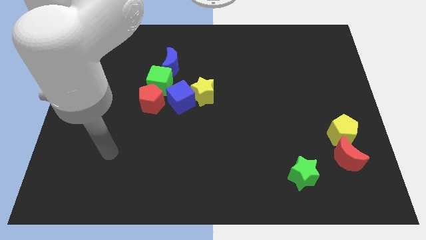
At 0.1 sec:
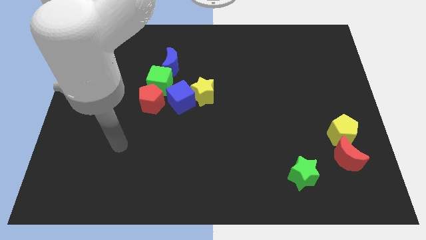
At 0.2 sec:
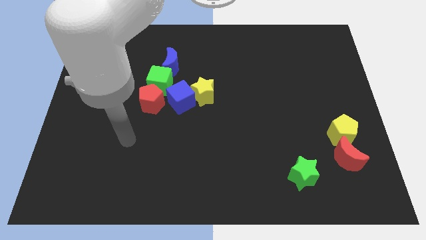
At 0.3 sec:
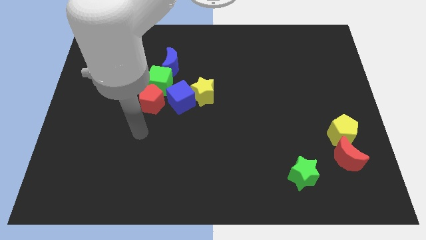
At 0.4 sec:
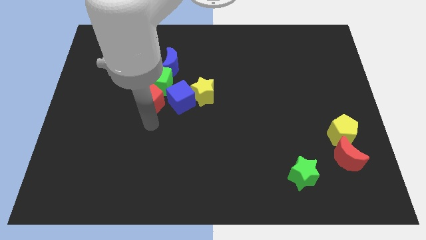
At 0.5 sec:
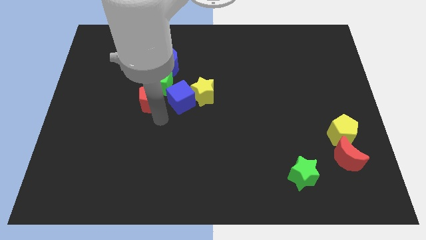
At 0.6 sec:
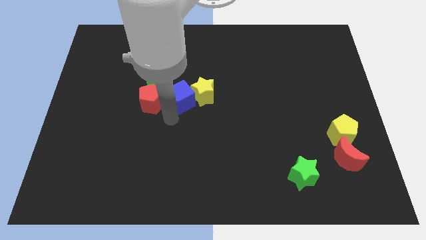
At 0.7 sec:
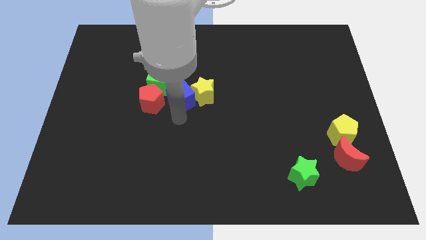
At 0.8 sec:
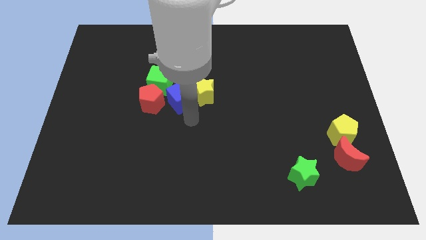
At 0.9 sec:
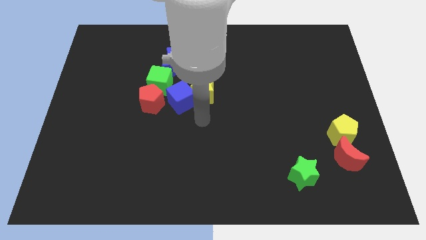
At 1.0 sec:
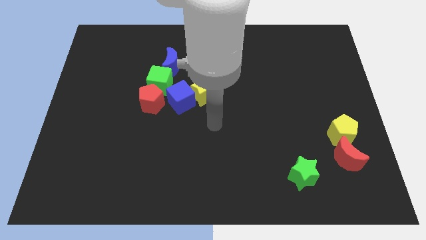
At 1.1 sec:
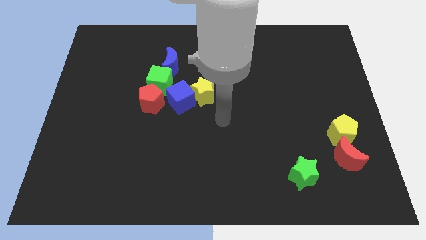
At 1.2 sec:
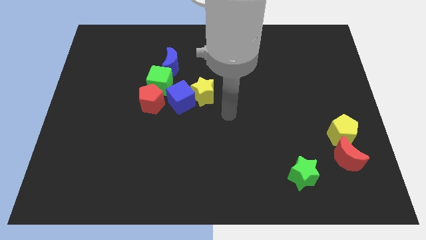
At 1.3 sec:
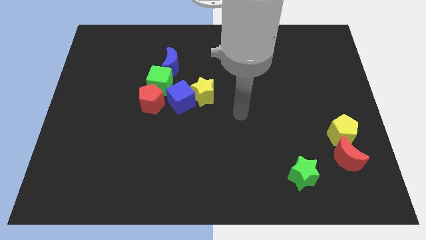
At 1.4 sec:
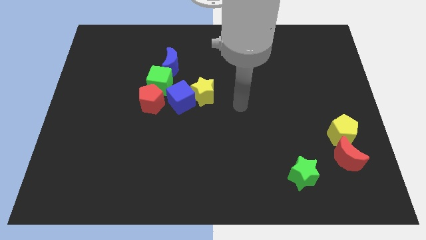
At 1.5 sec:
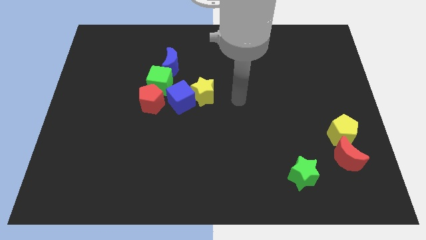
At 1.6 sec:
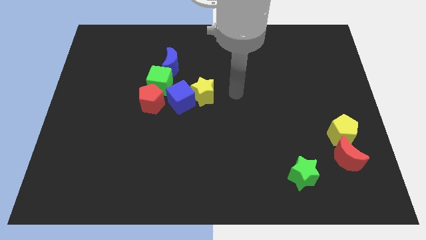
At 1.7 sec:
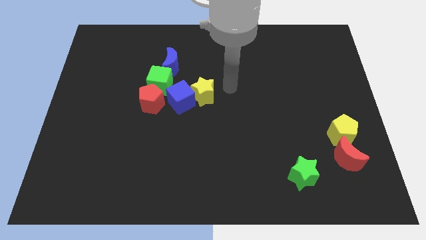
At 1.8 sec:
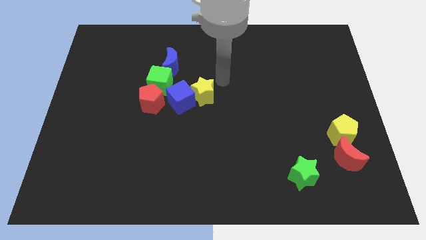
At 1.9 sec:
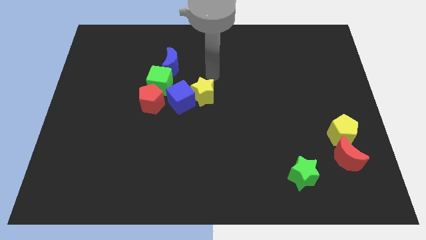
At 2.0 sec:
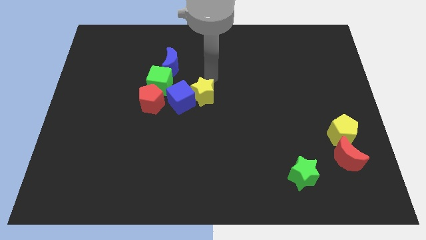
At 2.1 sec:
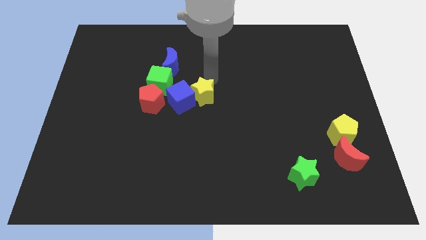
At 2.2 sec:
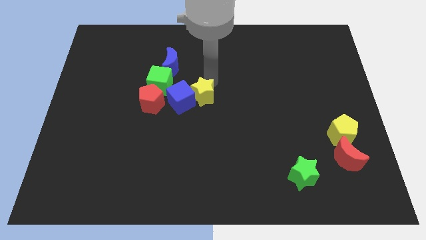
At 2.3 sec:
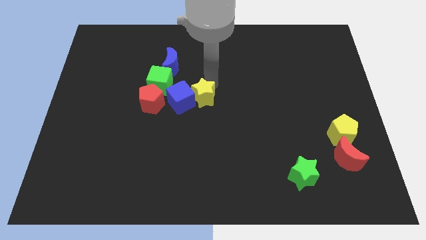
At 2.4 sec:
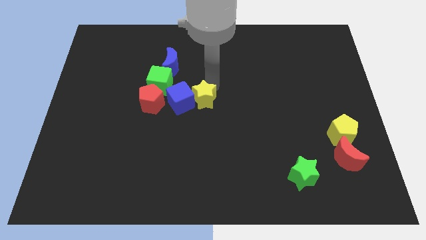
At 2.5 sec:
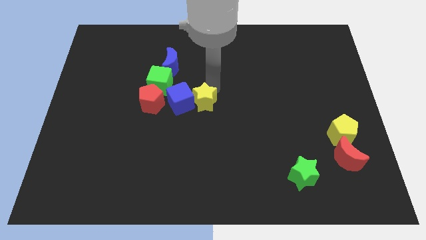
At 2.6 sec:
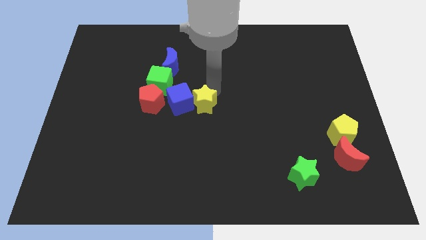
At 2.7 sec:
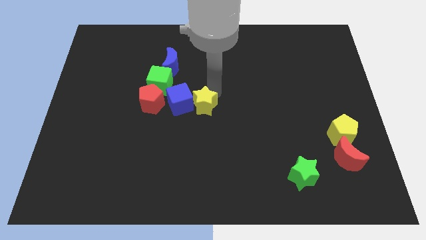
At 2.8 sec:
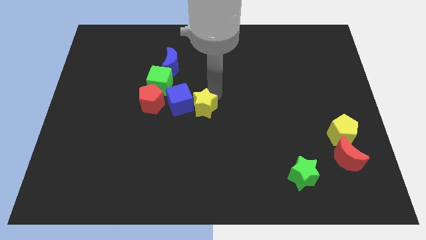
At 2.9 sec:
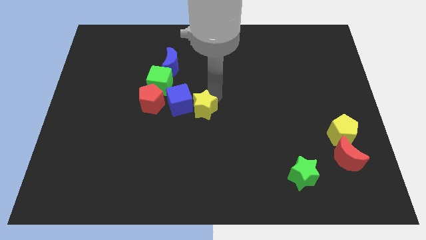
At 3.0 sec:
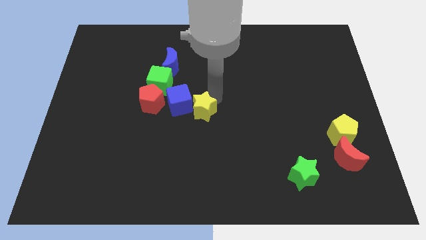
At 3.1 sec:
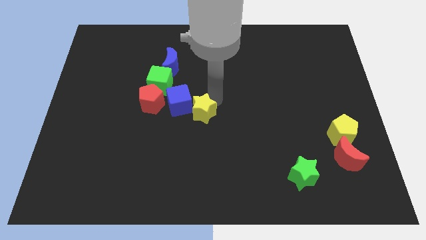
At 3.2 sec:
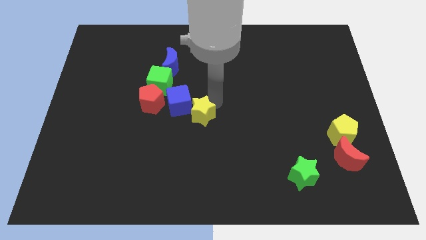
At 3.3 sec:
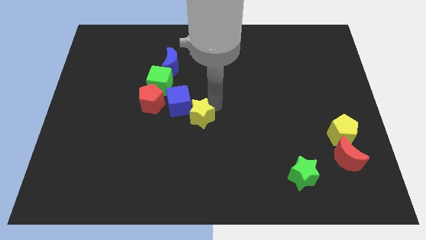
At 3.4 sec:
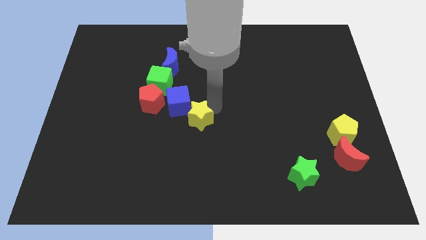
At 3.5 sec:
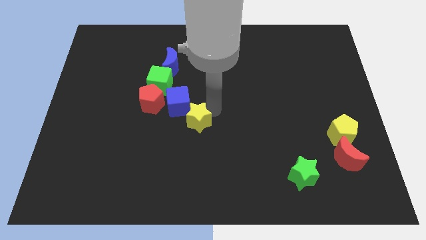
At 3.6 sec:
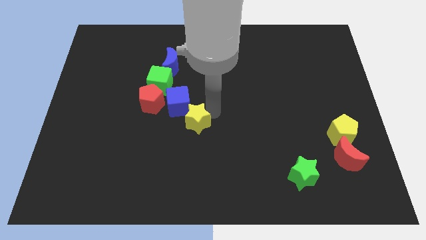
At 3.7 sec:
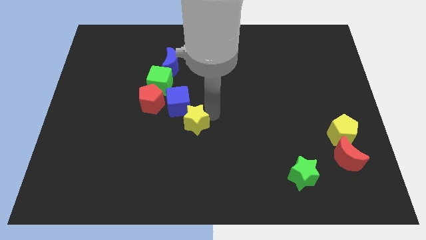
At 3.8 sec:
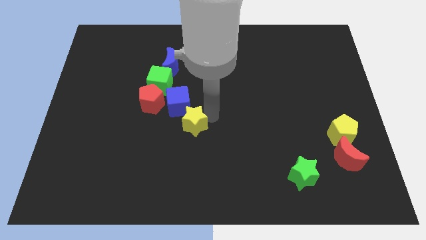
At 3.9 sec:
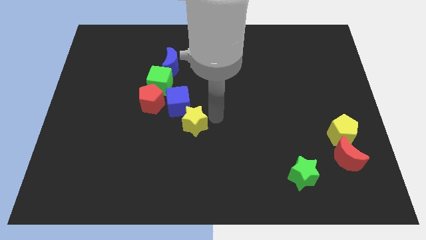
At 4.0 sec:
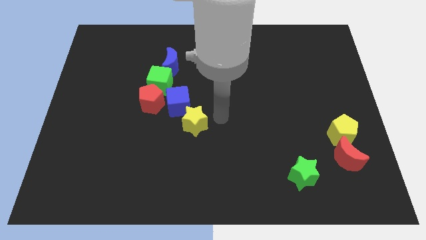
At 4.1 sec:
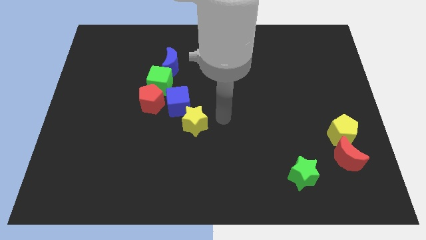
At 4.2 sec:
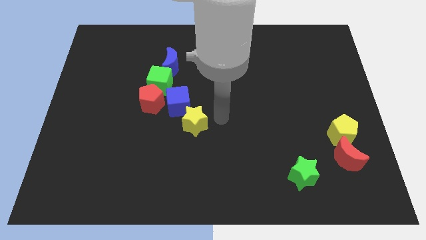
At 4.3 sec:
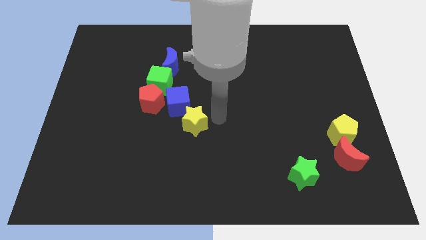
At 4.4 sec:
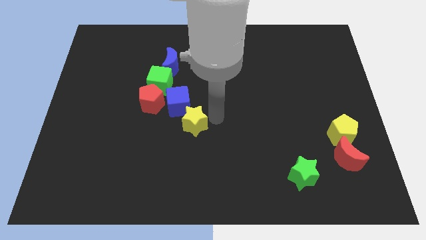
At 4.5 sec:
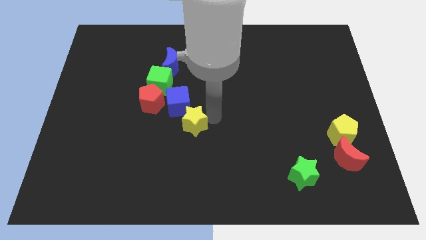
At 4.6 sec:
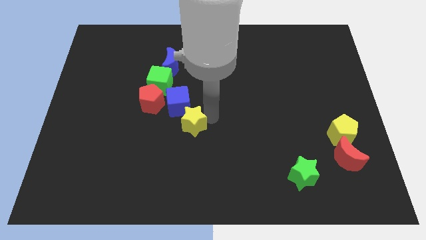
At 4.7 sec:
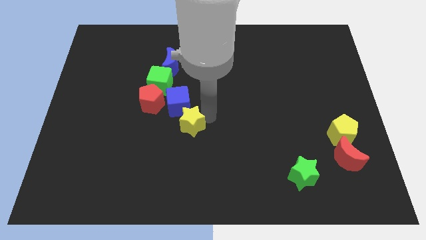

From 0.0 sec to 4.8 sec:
move the yellow star down and to the left diagonally somewhat

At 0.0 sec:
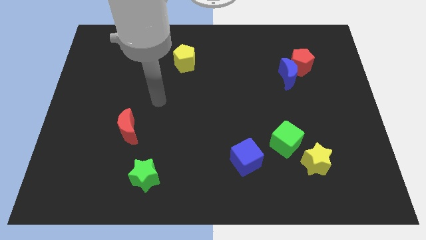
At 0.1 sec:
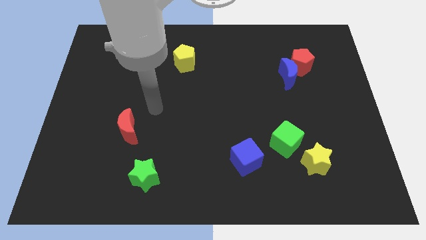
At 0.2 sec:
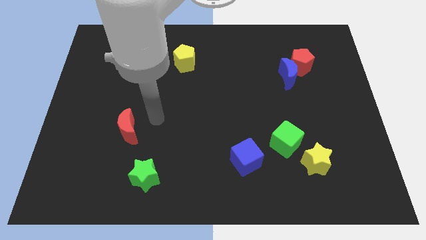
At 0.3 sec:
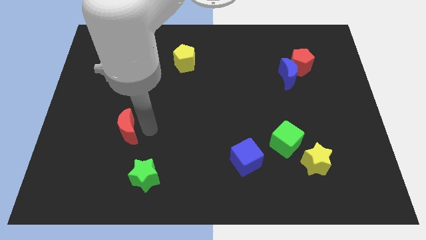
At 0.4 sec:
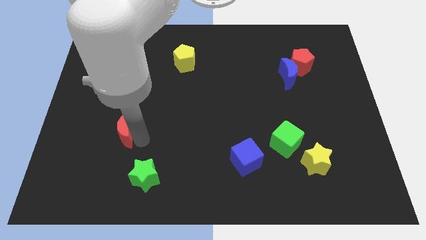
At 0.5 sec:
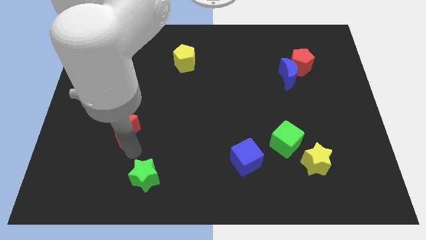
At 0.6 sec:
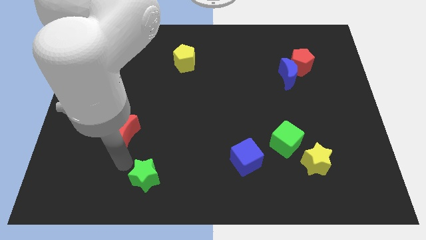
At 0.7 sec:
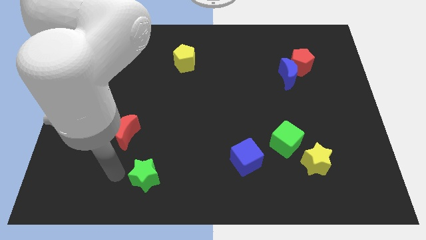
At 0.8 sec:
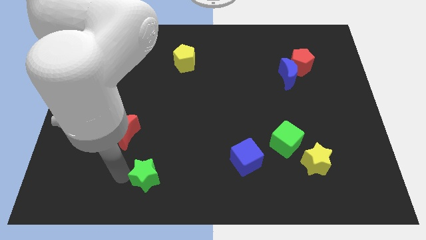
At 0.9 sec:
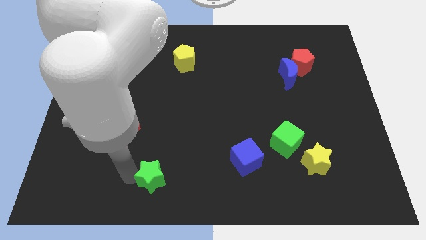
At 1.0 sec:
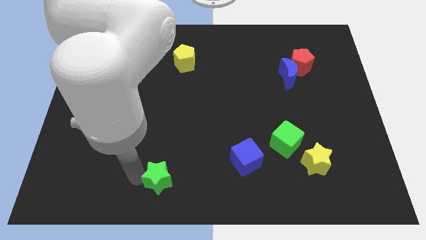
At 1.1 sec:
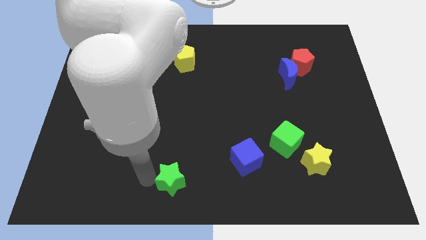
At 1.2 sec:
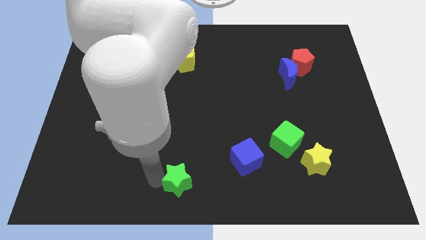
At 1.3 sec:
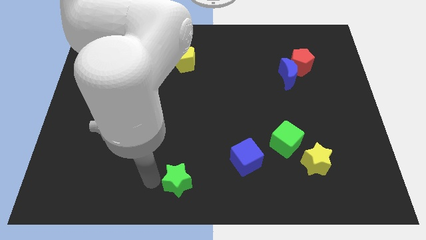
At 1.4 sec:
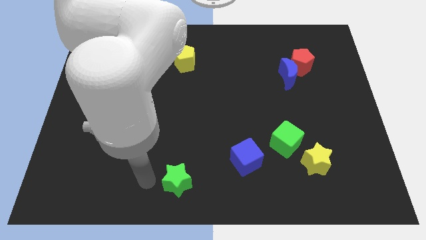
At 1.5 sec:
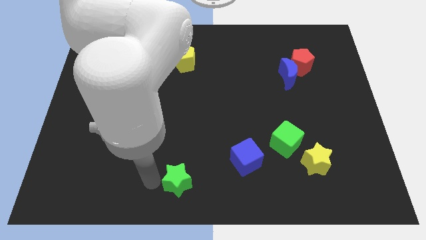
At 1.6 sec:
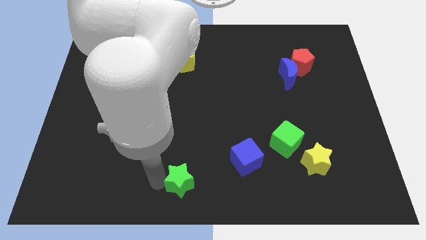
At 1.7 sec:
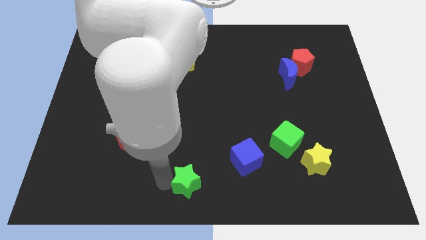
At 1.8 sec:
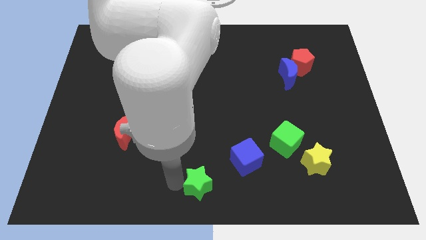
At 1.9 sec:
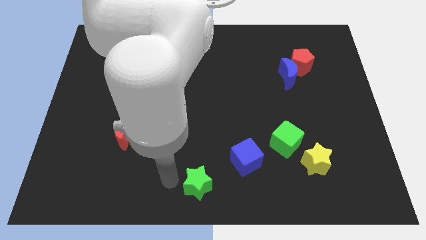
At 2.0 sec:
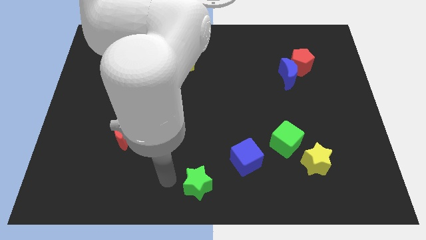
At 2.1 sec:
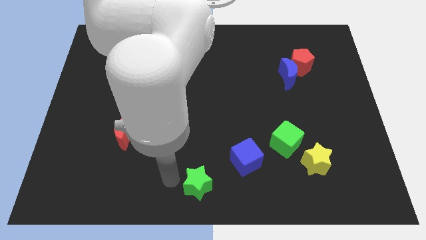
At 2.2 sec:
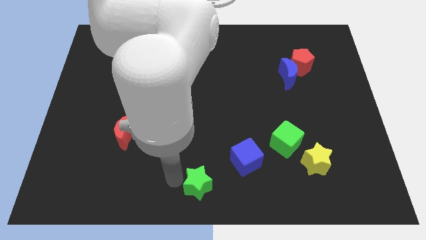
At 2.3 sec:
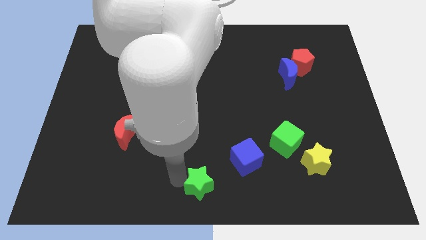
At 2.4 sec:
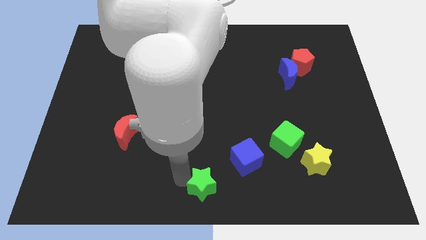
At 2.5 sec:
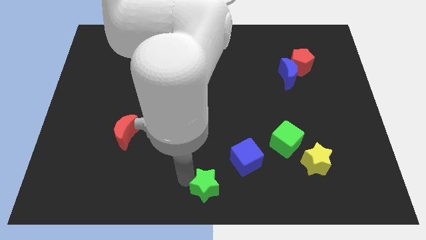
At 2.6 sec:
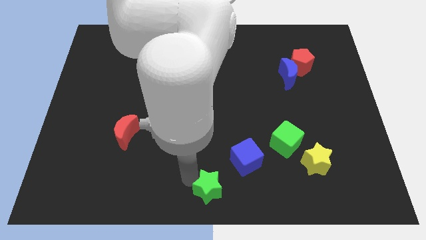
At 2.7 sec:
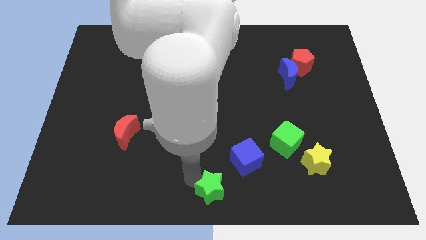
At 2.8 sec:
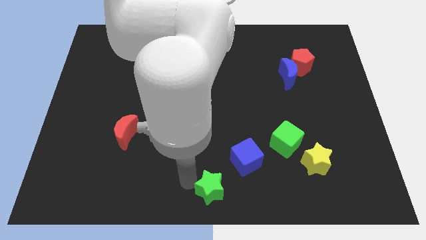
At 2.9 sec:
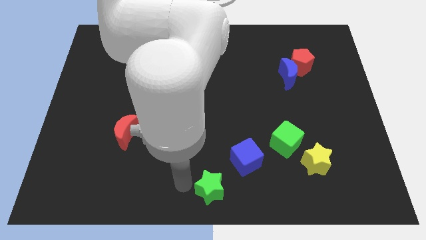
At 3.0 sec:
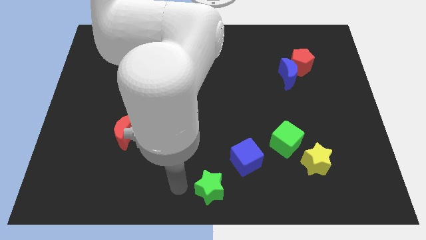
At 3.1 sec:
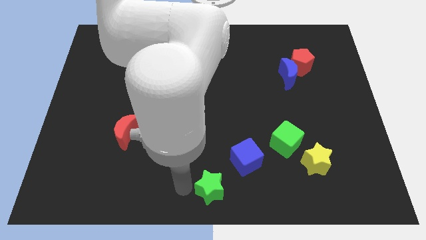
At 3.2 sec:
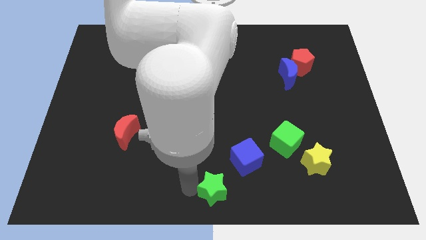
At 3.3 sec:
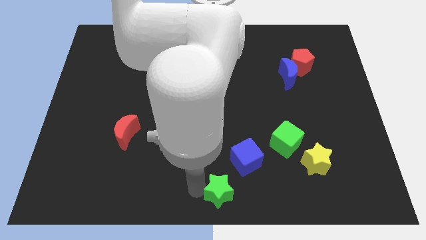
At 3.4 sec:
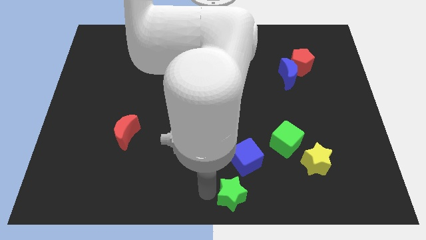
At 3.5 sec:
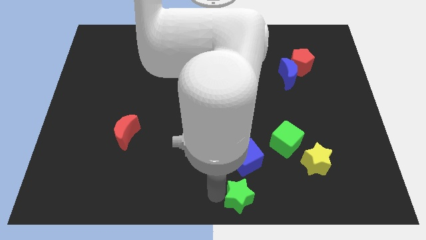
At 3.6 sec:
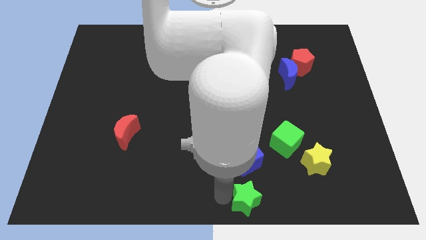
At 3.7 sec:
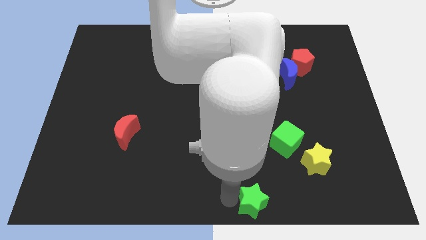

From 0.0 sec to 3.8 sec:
slide the green star right
